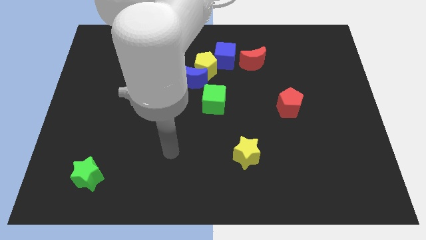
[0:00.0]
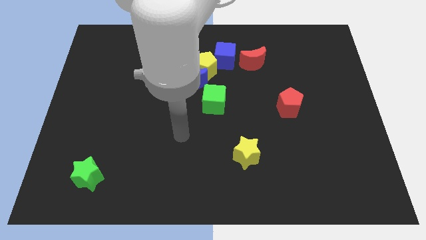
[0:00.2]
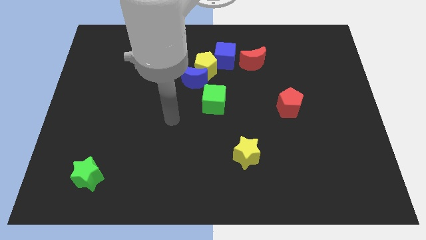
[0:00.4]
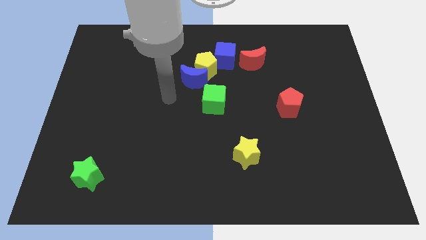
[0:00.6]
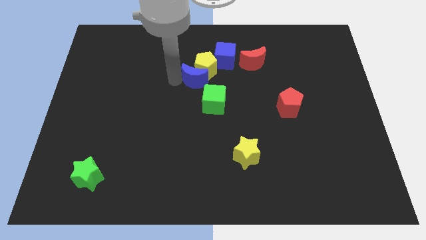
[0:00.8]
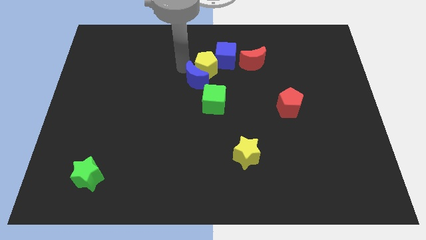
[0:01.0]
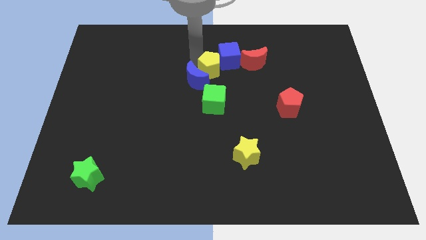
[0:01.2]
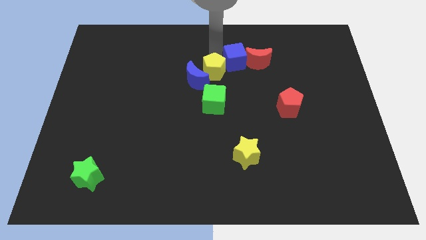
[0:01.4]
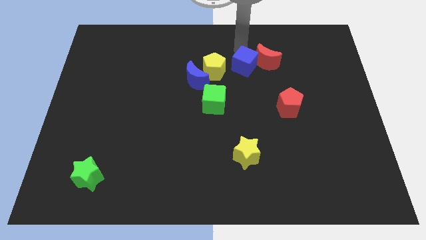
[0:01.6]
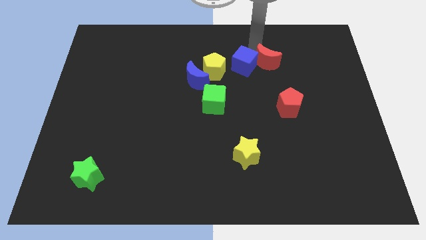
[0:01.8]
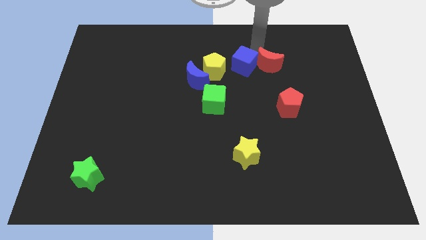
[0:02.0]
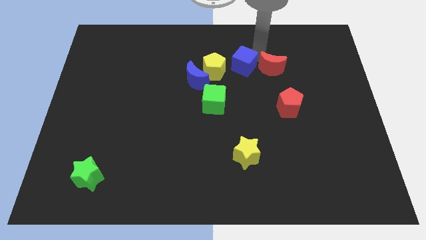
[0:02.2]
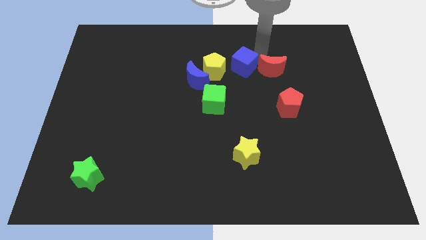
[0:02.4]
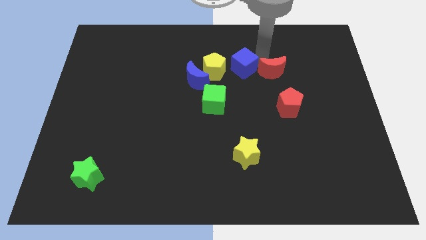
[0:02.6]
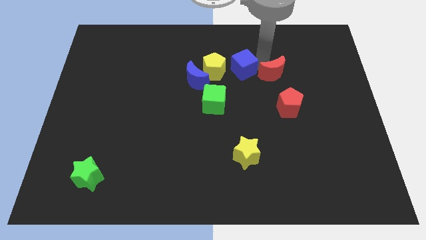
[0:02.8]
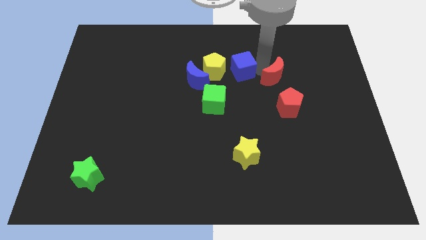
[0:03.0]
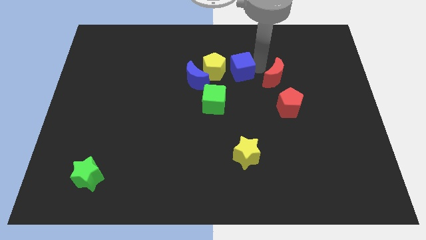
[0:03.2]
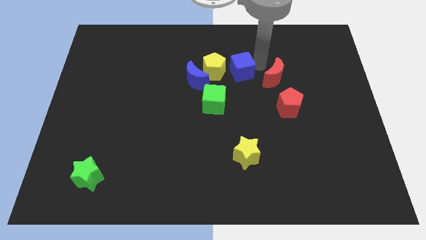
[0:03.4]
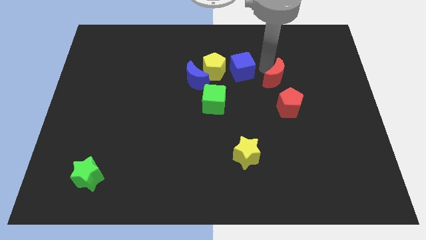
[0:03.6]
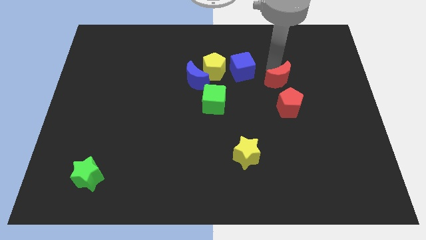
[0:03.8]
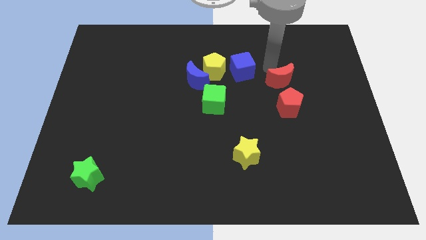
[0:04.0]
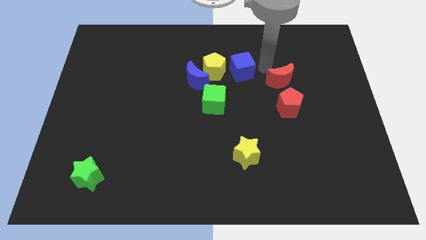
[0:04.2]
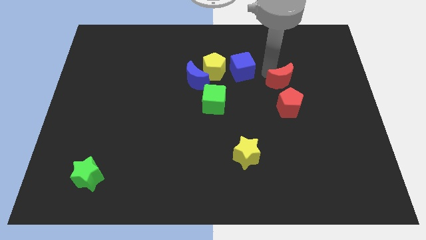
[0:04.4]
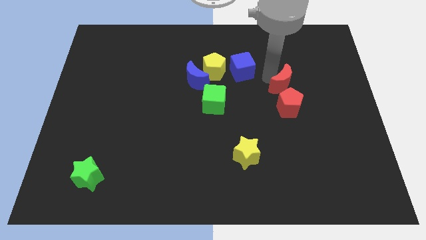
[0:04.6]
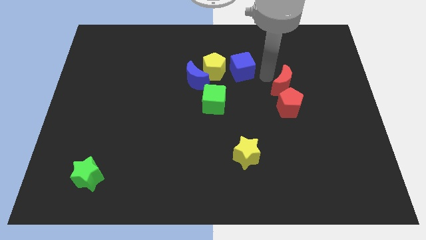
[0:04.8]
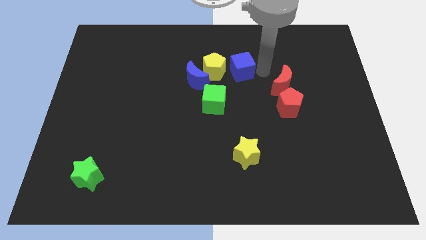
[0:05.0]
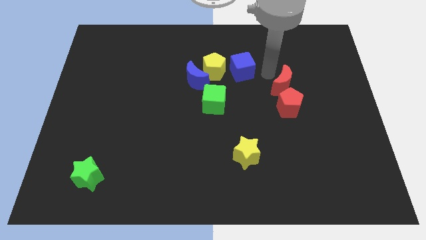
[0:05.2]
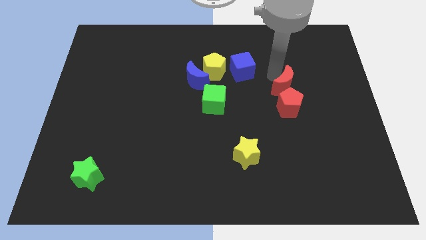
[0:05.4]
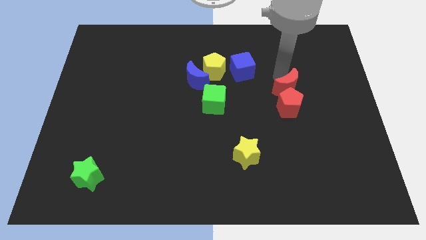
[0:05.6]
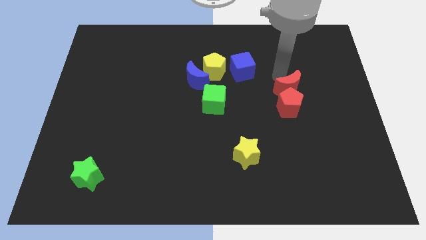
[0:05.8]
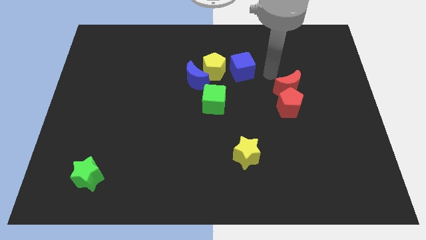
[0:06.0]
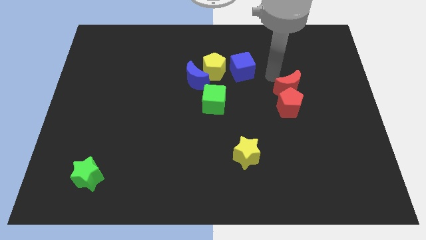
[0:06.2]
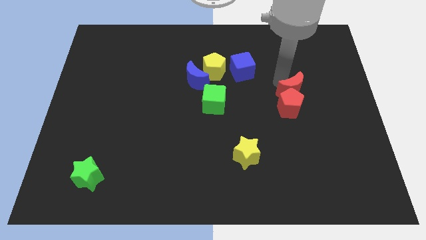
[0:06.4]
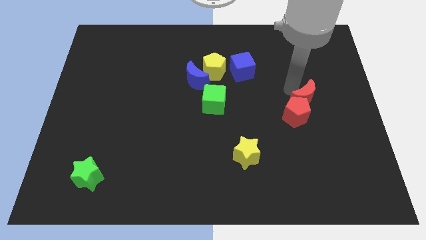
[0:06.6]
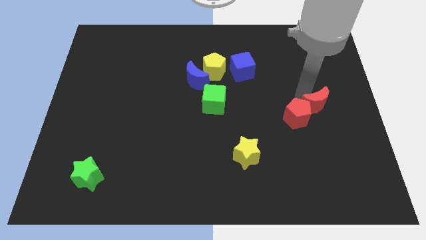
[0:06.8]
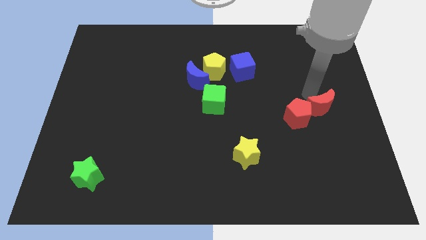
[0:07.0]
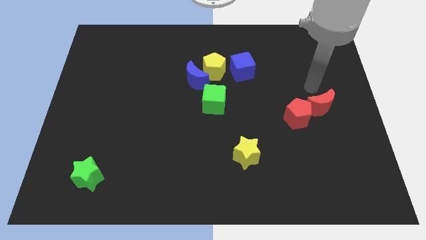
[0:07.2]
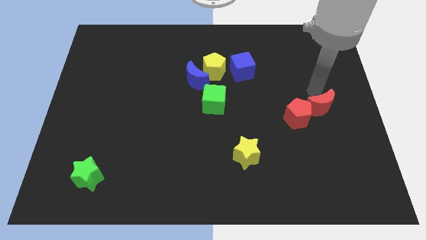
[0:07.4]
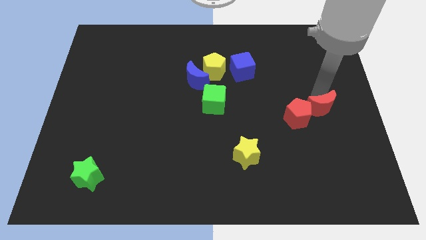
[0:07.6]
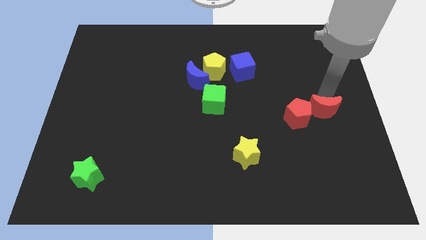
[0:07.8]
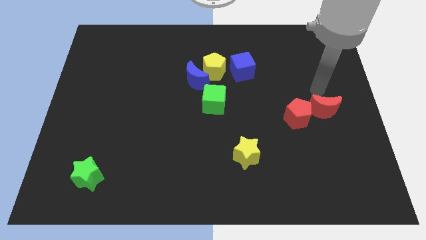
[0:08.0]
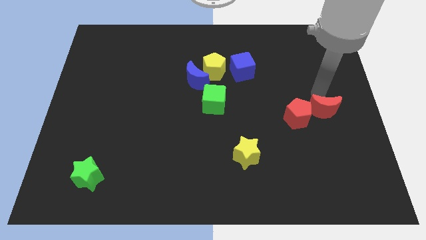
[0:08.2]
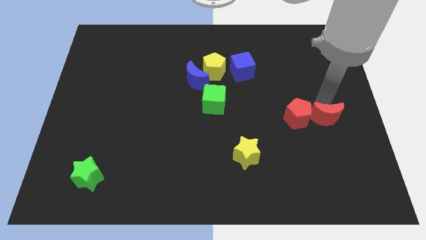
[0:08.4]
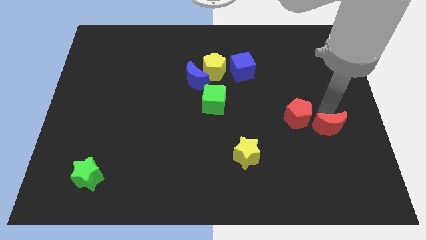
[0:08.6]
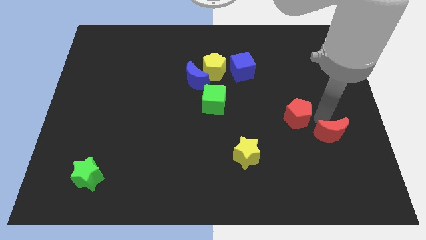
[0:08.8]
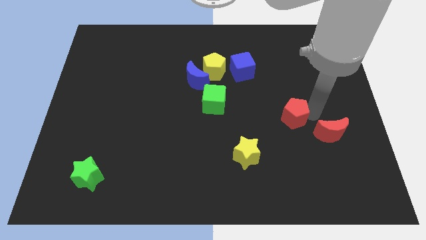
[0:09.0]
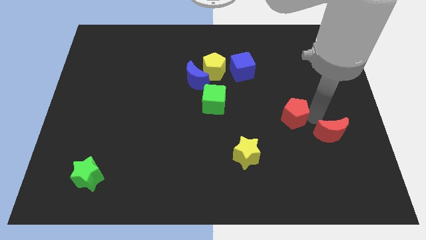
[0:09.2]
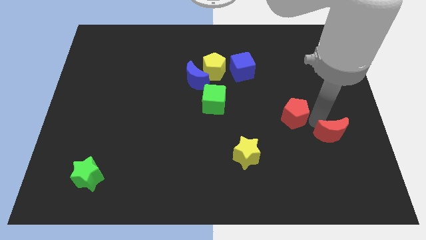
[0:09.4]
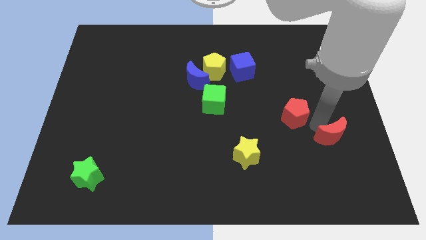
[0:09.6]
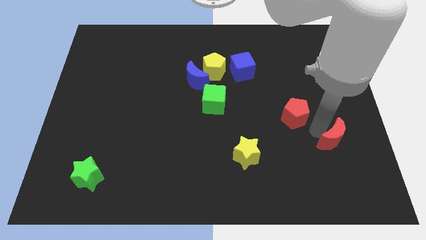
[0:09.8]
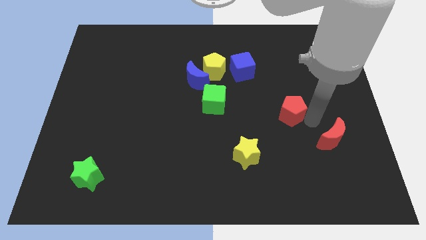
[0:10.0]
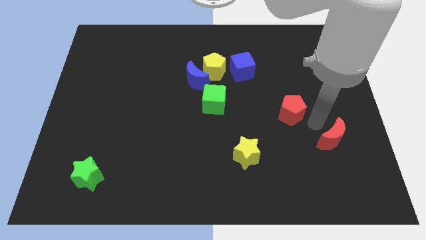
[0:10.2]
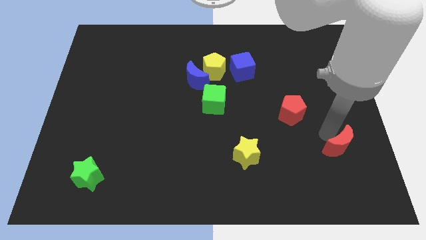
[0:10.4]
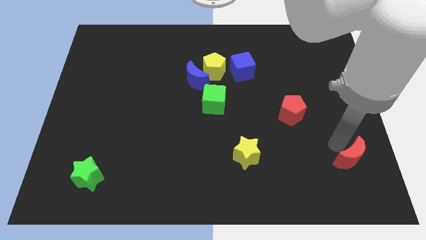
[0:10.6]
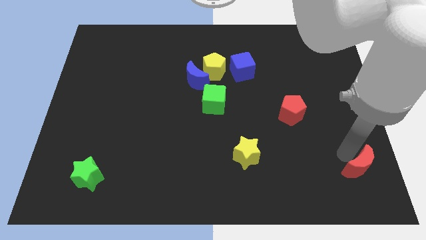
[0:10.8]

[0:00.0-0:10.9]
put the red moon to the lower right corner

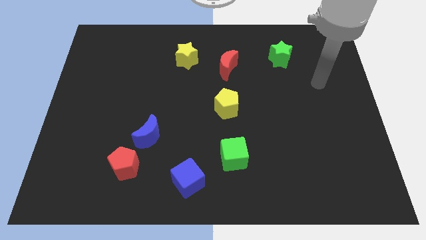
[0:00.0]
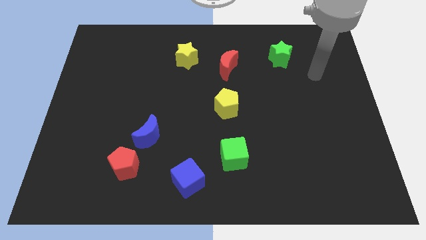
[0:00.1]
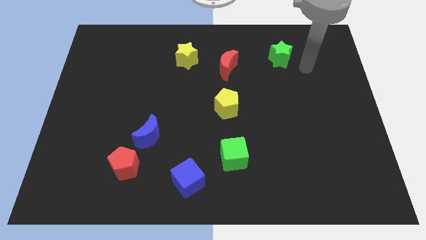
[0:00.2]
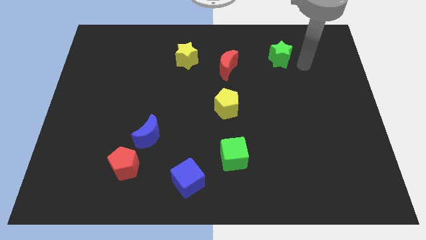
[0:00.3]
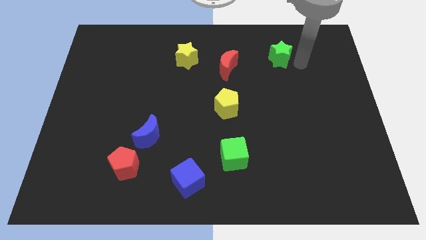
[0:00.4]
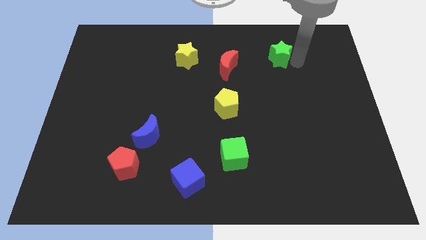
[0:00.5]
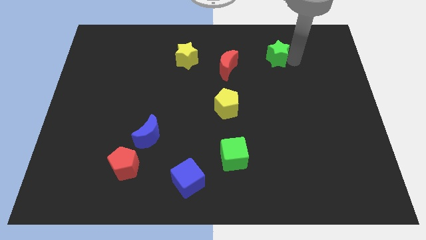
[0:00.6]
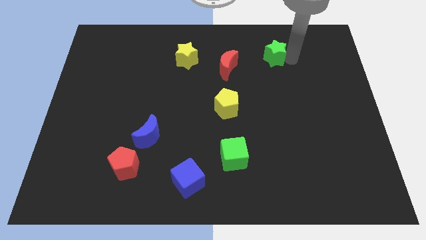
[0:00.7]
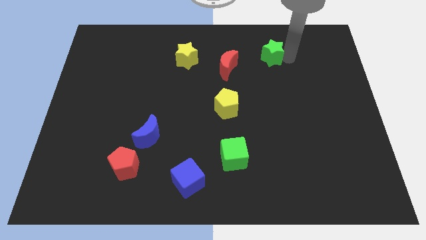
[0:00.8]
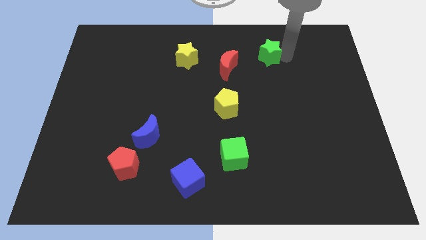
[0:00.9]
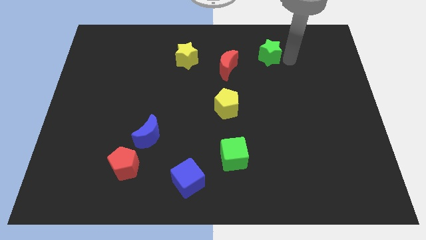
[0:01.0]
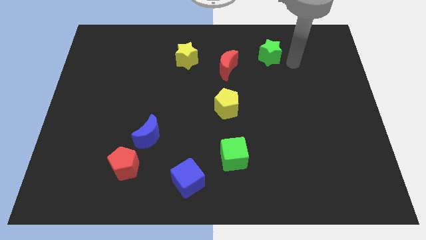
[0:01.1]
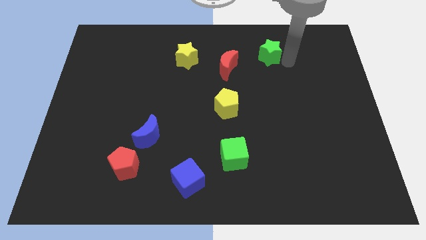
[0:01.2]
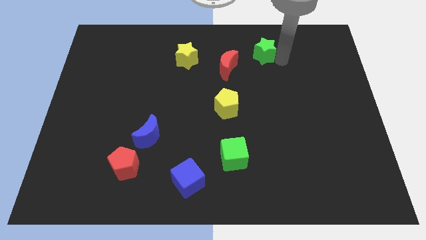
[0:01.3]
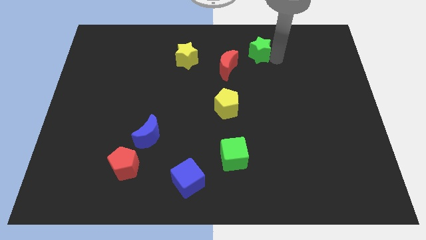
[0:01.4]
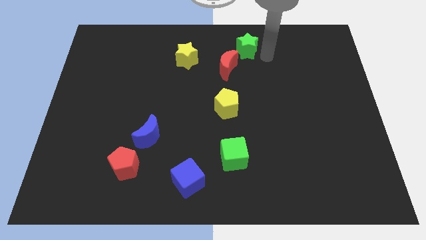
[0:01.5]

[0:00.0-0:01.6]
push the green star to the towards your base

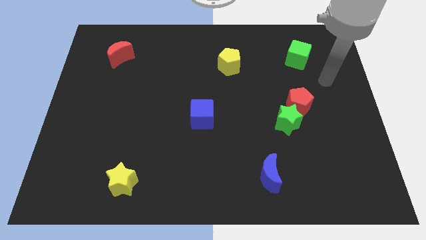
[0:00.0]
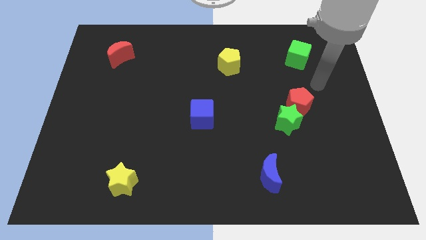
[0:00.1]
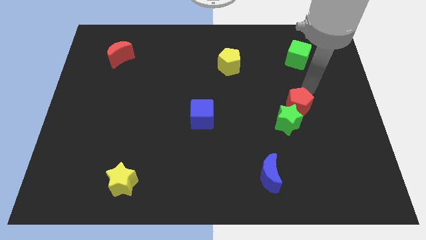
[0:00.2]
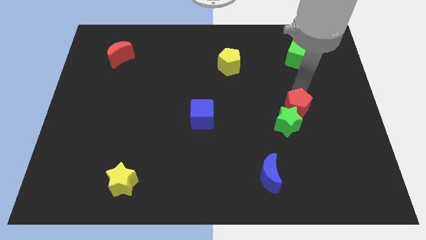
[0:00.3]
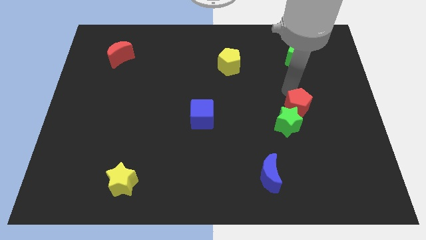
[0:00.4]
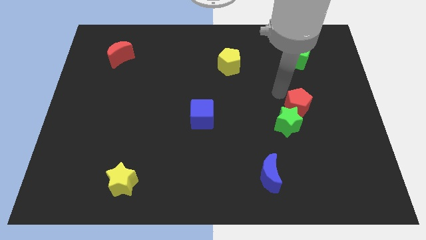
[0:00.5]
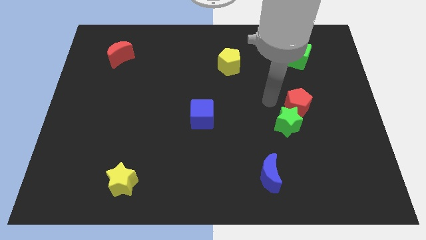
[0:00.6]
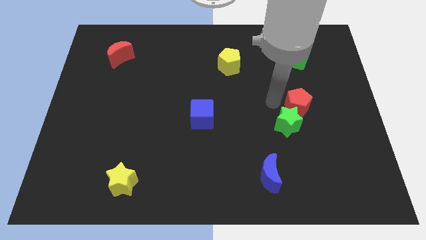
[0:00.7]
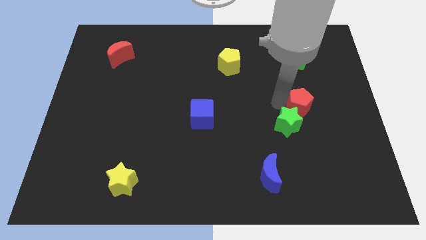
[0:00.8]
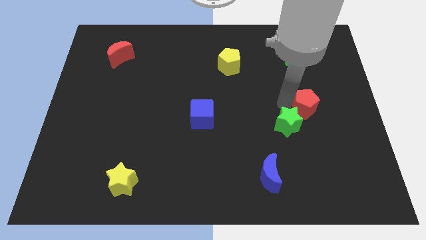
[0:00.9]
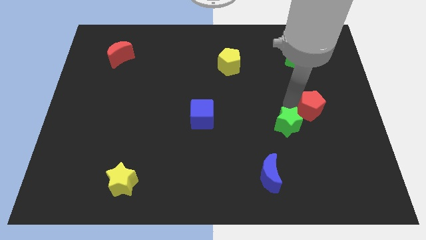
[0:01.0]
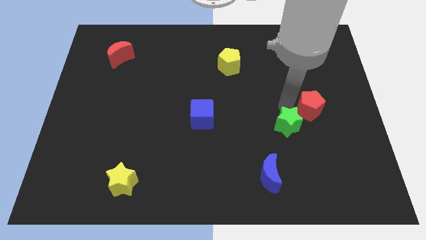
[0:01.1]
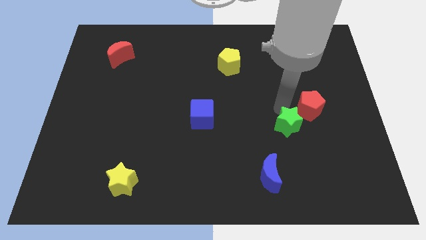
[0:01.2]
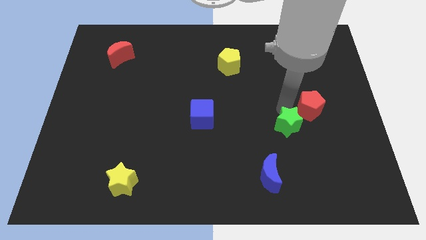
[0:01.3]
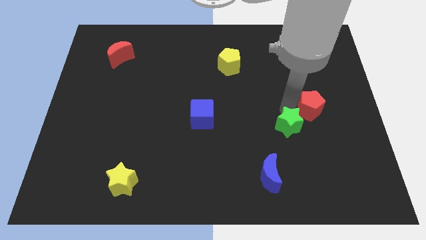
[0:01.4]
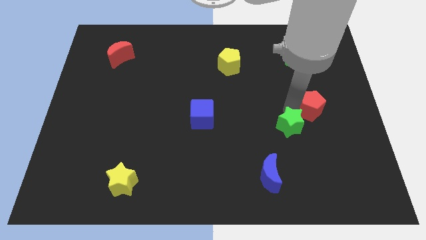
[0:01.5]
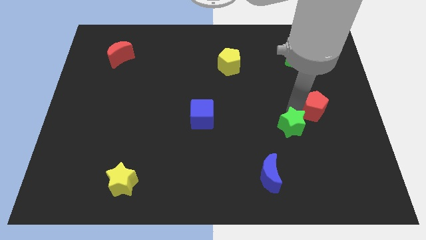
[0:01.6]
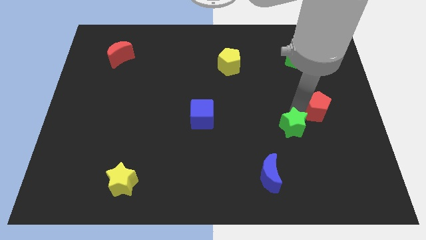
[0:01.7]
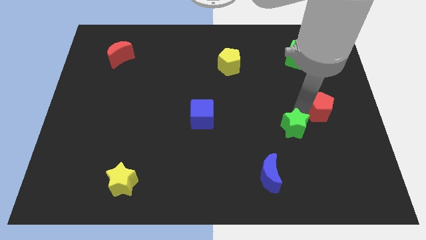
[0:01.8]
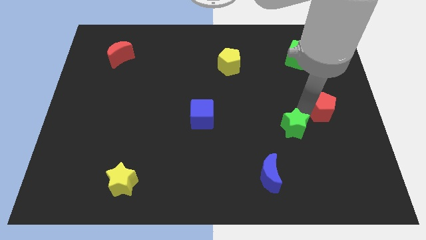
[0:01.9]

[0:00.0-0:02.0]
push the red pentagon to the right side
